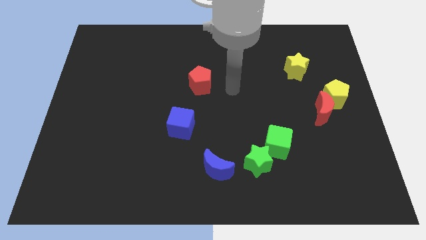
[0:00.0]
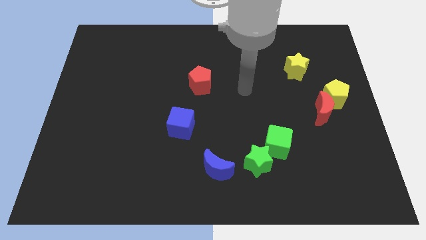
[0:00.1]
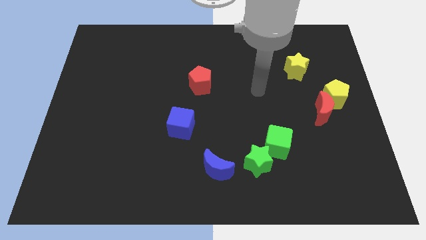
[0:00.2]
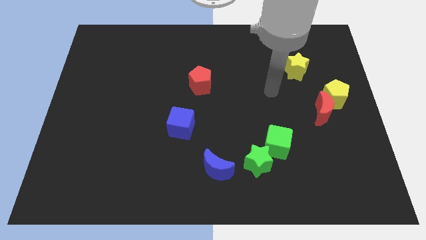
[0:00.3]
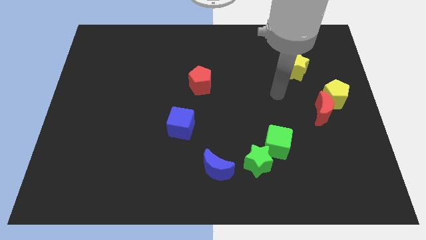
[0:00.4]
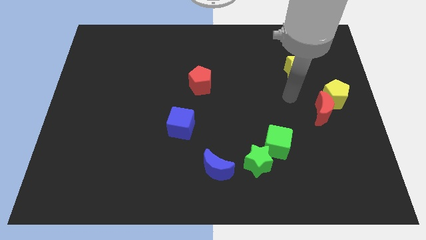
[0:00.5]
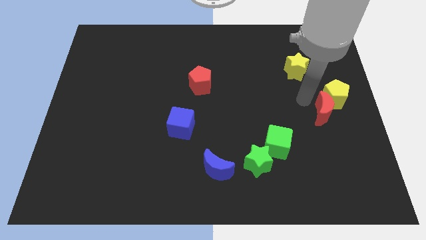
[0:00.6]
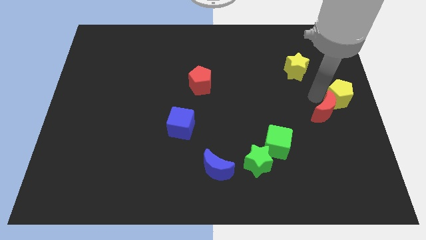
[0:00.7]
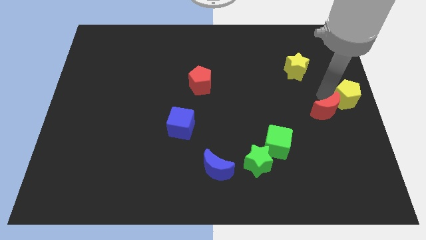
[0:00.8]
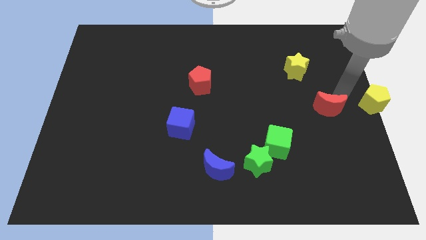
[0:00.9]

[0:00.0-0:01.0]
move the red moon away from the yellow pentagon

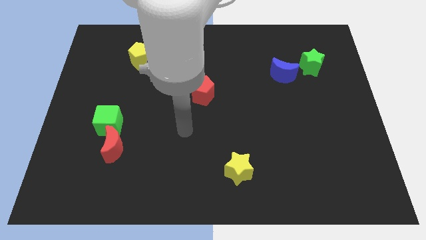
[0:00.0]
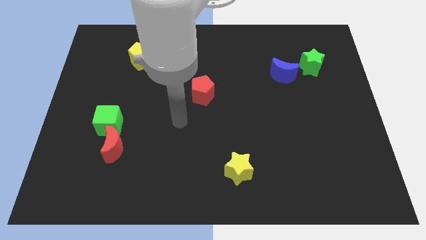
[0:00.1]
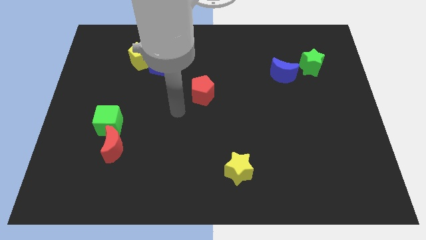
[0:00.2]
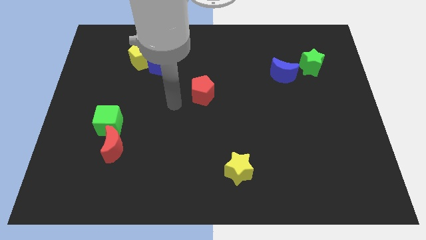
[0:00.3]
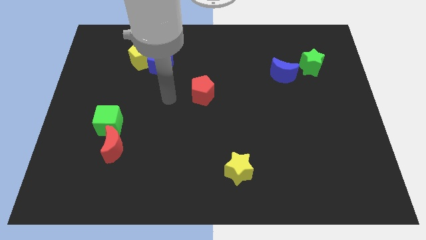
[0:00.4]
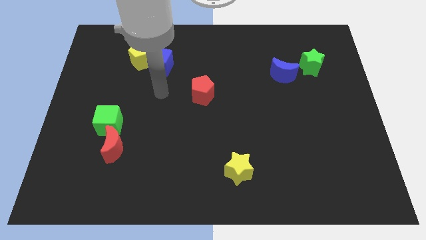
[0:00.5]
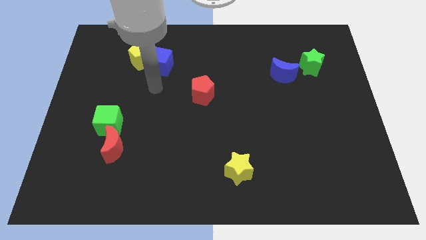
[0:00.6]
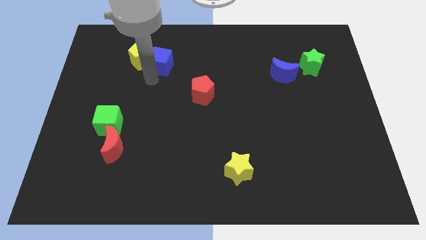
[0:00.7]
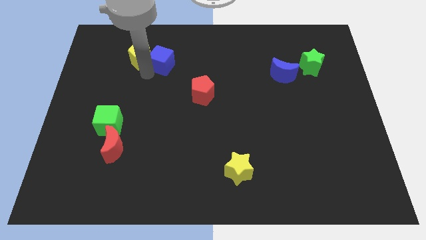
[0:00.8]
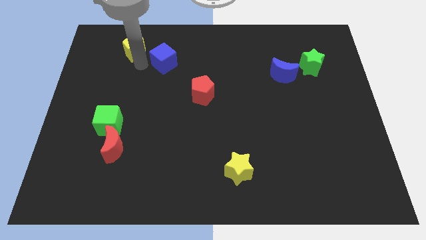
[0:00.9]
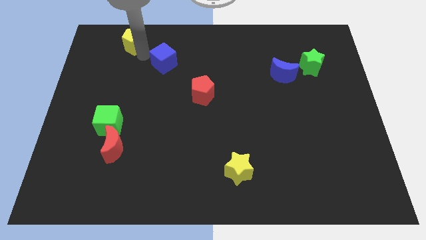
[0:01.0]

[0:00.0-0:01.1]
pull the blue cube apart from the yellow pentagon

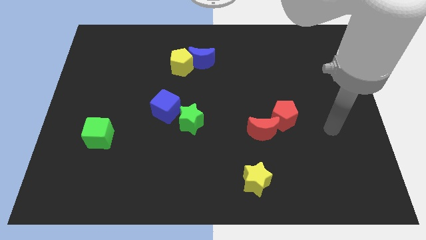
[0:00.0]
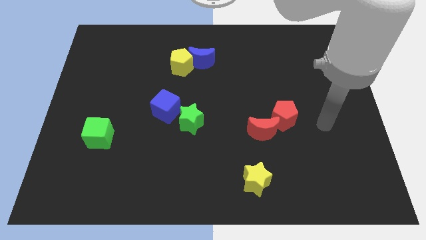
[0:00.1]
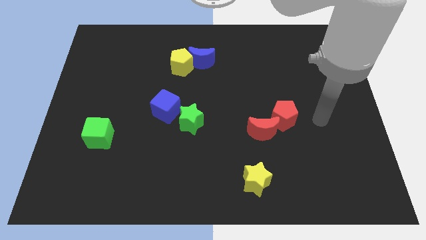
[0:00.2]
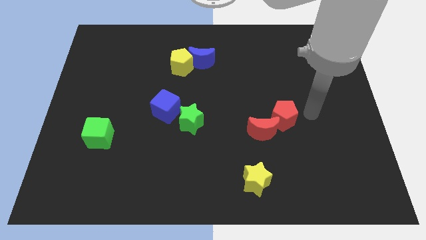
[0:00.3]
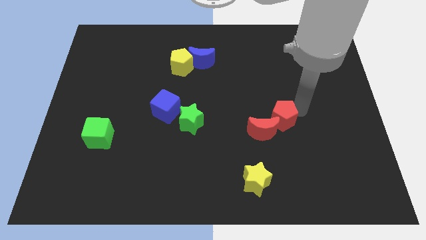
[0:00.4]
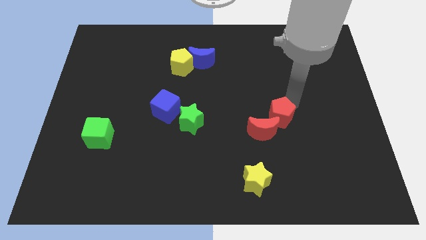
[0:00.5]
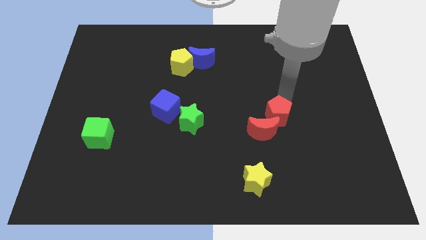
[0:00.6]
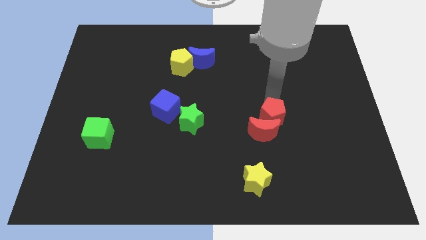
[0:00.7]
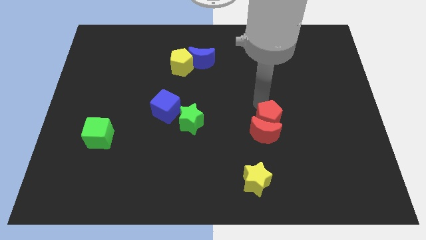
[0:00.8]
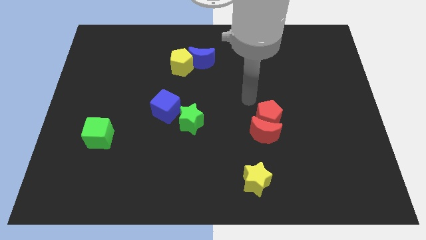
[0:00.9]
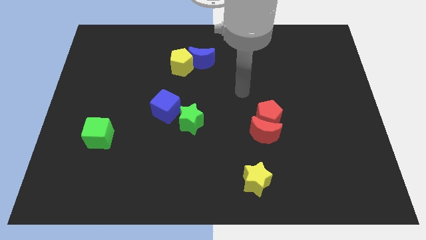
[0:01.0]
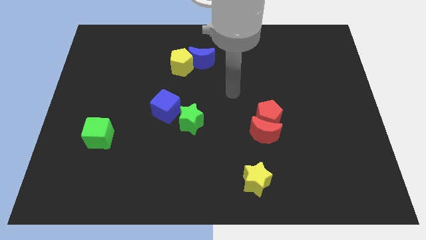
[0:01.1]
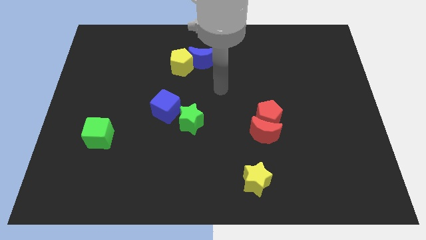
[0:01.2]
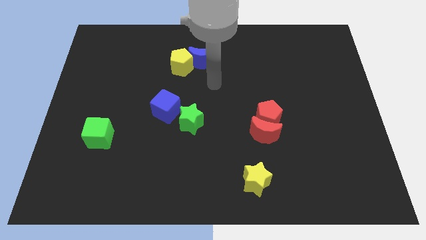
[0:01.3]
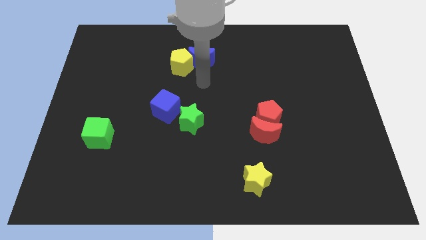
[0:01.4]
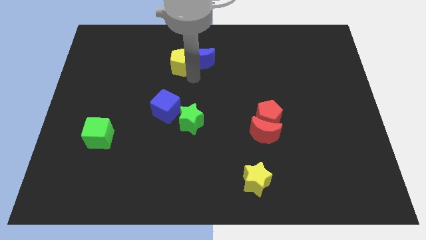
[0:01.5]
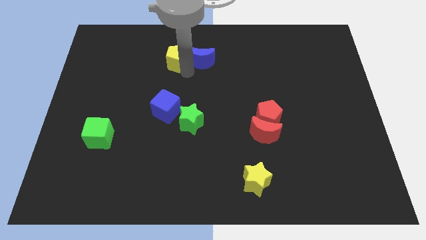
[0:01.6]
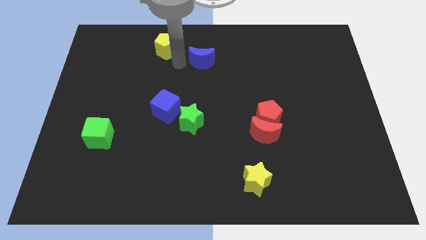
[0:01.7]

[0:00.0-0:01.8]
move the blue moon away from the yellow pentagon

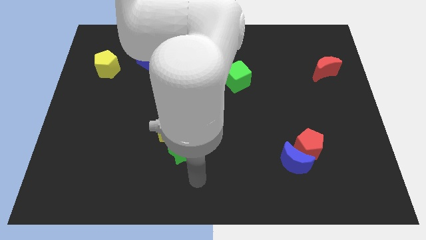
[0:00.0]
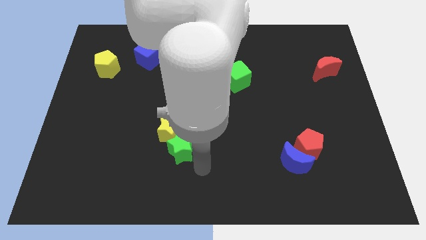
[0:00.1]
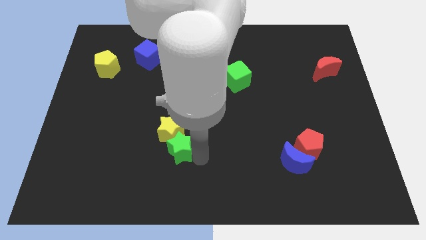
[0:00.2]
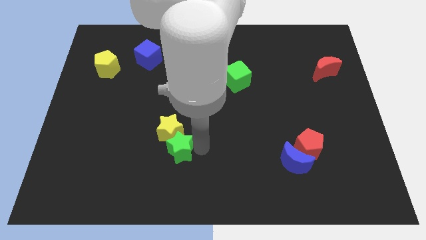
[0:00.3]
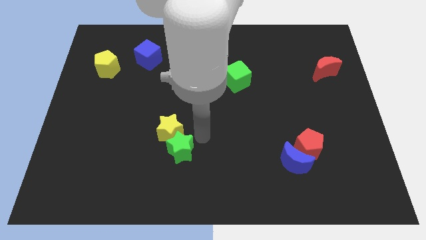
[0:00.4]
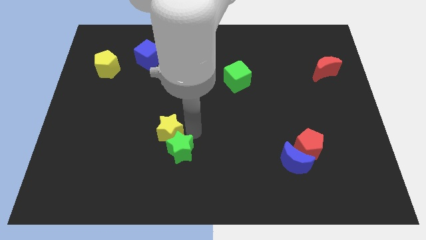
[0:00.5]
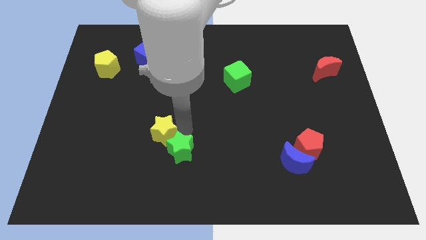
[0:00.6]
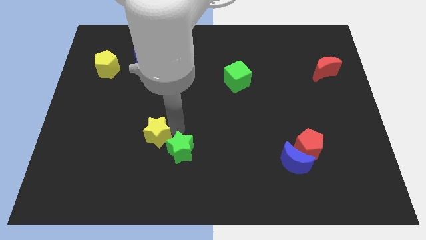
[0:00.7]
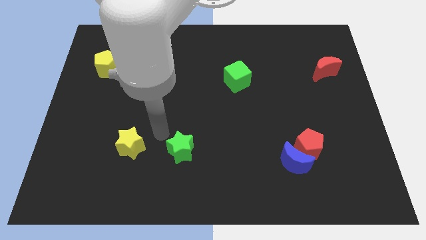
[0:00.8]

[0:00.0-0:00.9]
separate the green star from the yellow star

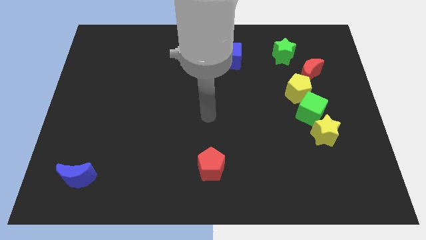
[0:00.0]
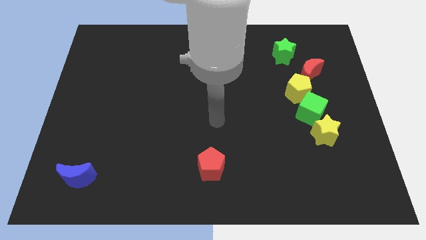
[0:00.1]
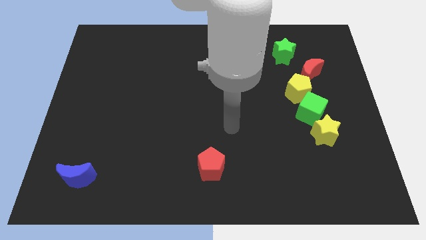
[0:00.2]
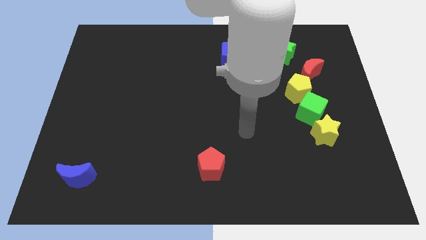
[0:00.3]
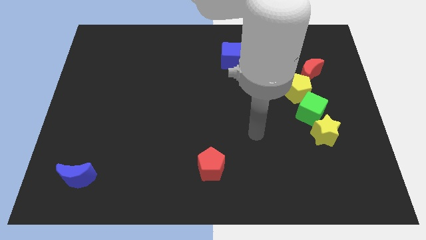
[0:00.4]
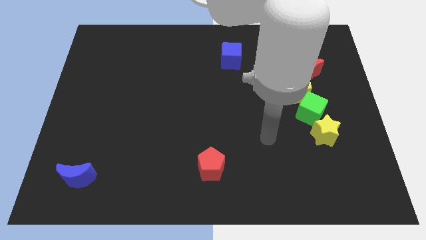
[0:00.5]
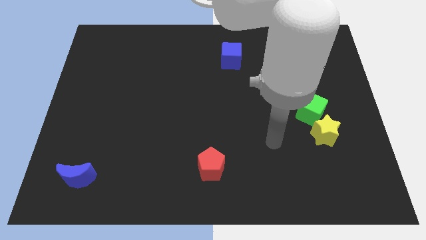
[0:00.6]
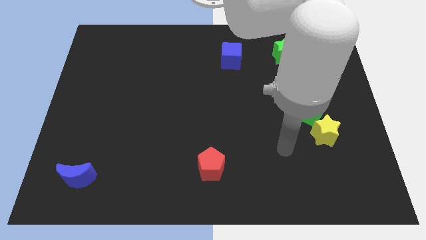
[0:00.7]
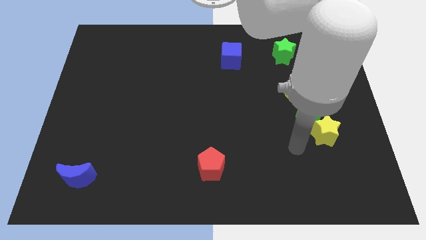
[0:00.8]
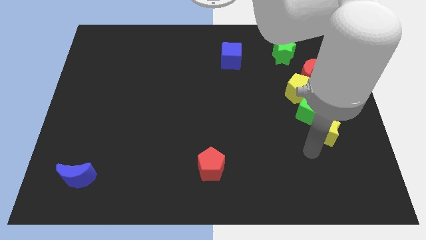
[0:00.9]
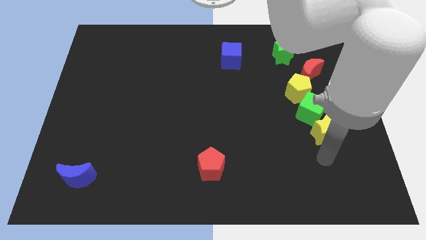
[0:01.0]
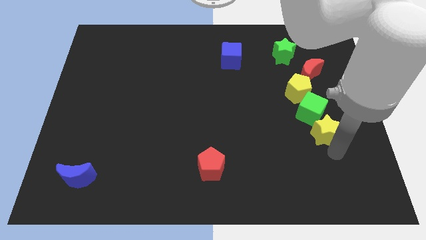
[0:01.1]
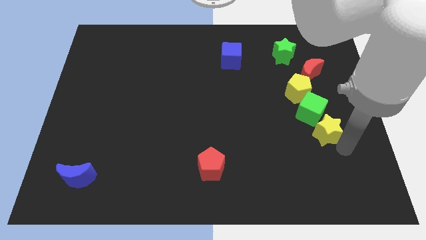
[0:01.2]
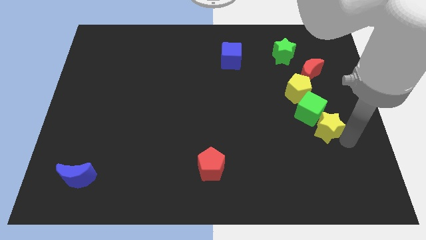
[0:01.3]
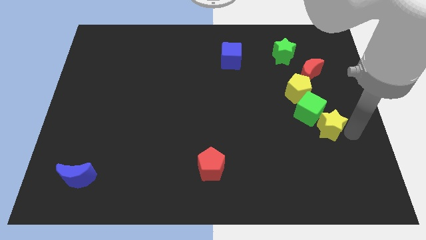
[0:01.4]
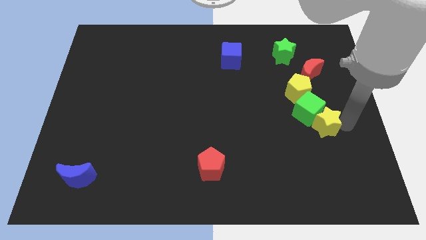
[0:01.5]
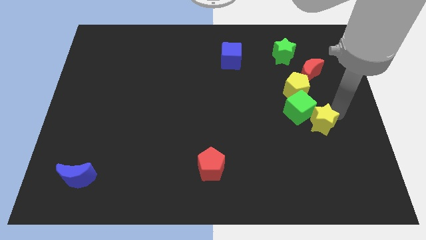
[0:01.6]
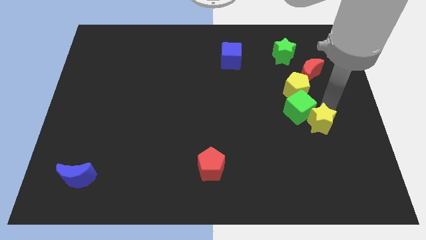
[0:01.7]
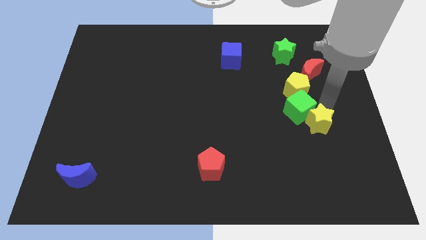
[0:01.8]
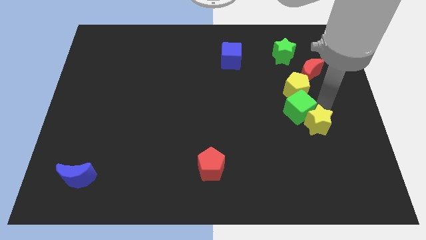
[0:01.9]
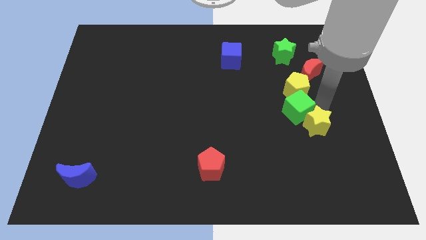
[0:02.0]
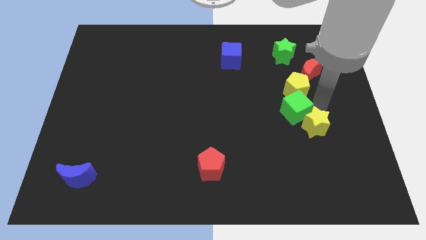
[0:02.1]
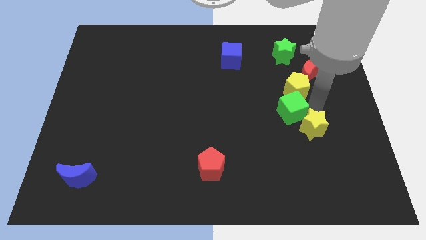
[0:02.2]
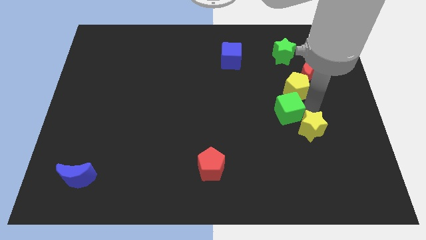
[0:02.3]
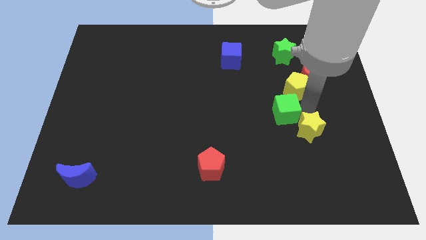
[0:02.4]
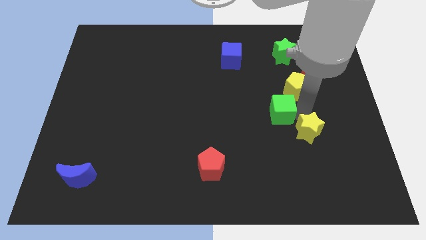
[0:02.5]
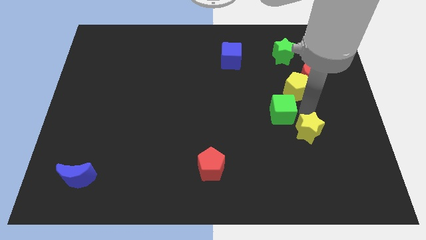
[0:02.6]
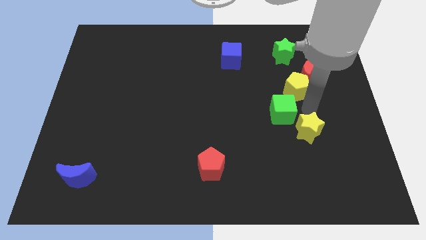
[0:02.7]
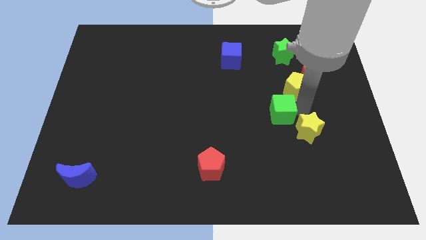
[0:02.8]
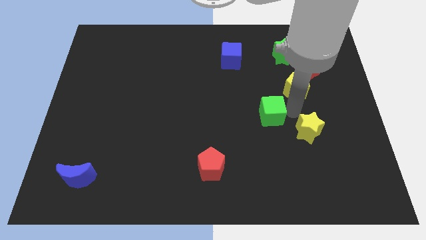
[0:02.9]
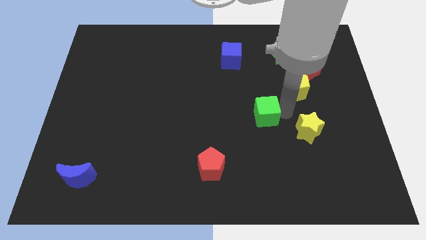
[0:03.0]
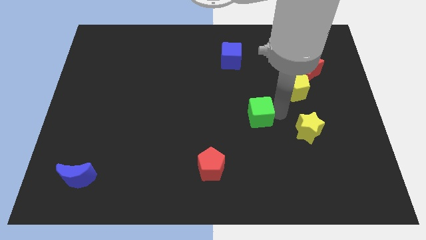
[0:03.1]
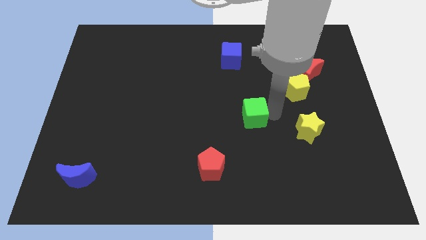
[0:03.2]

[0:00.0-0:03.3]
move the green cube away from the yellow pentagon and yellow star

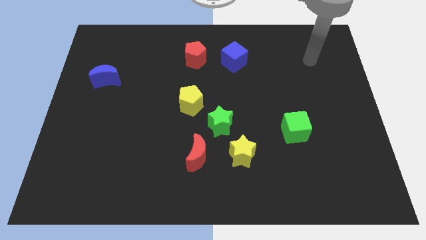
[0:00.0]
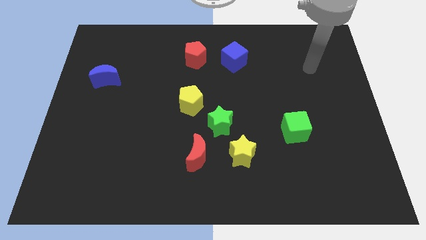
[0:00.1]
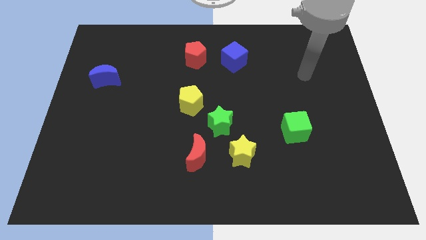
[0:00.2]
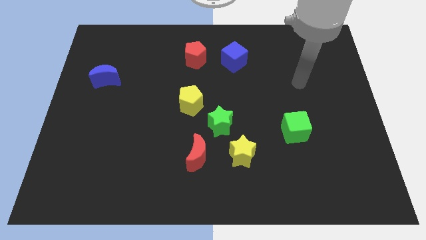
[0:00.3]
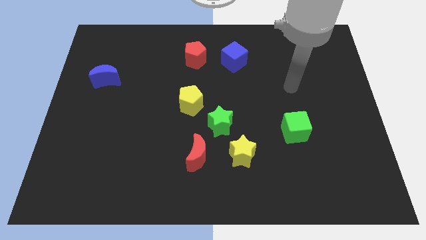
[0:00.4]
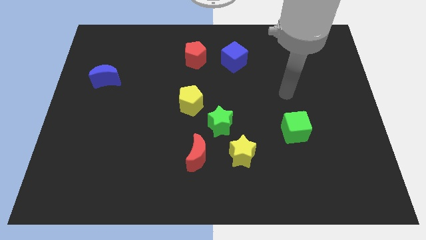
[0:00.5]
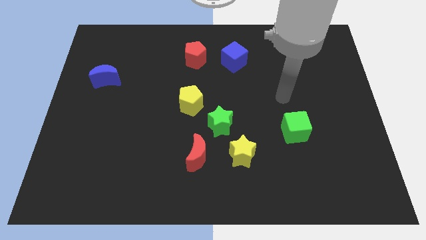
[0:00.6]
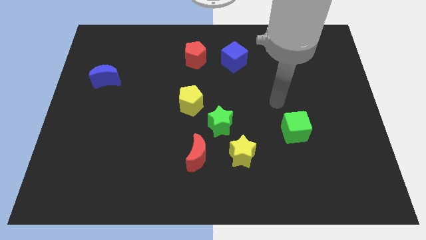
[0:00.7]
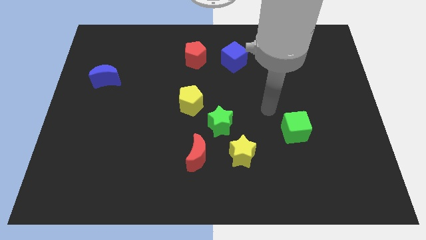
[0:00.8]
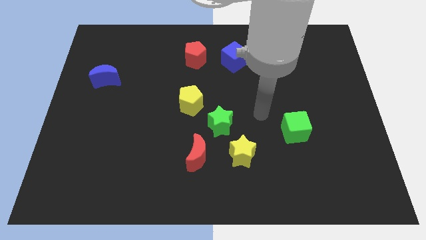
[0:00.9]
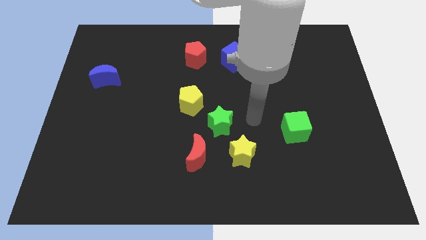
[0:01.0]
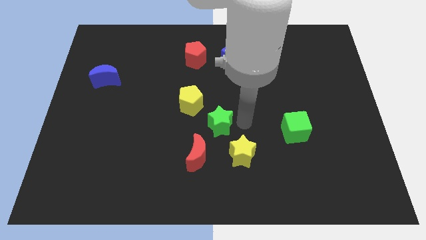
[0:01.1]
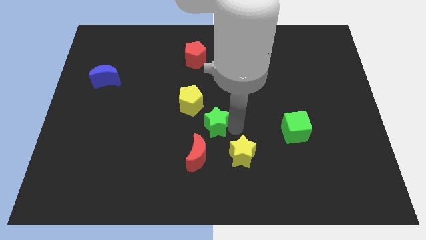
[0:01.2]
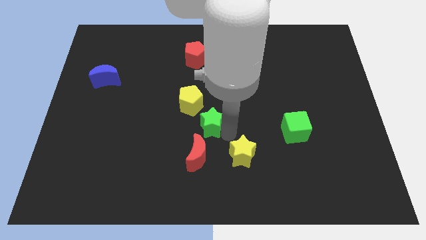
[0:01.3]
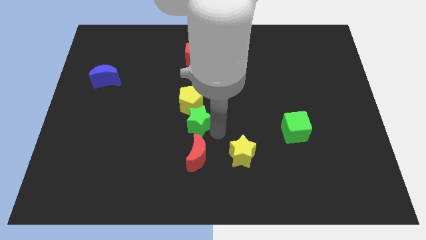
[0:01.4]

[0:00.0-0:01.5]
separate the yellow star from the green star and red moon
